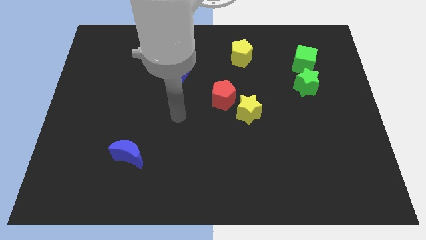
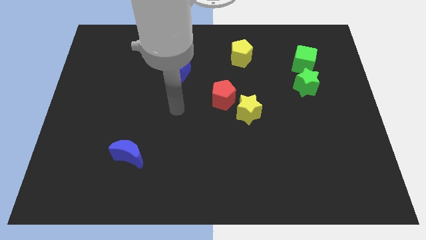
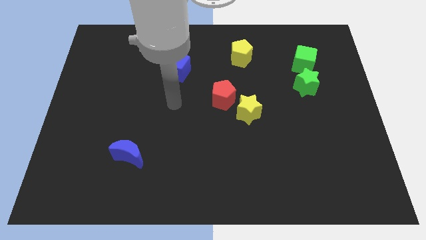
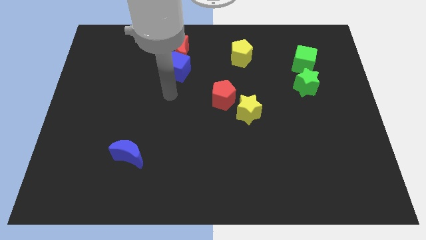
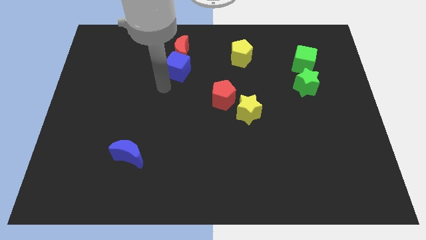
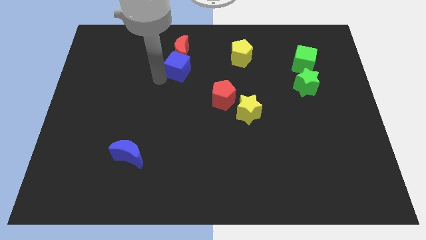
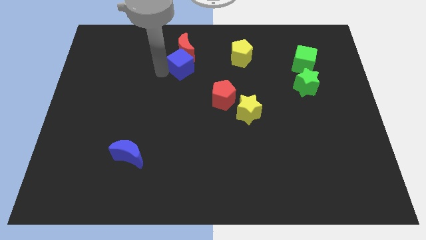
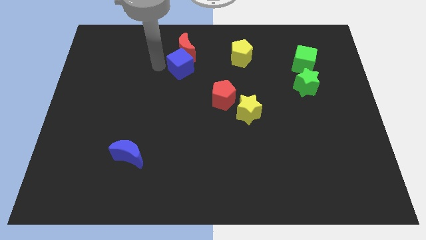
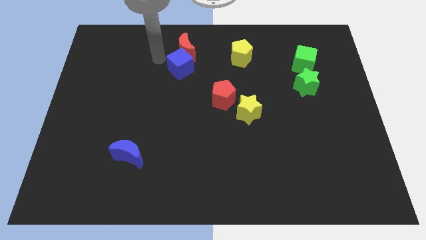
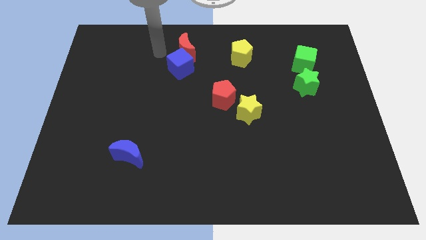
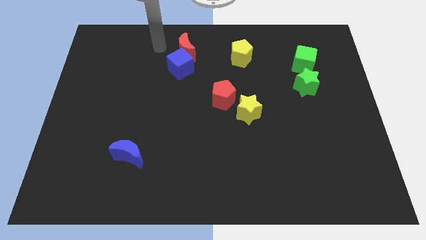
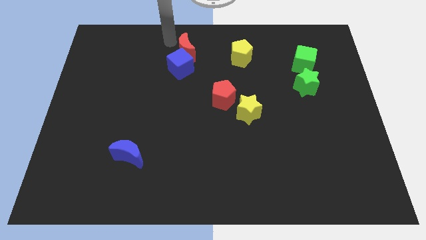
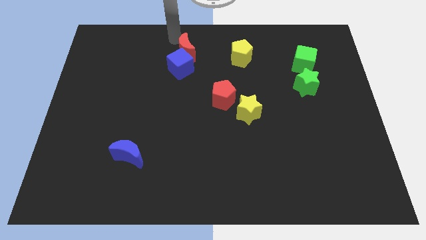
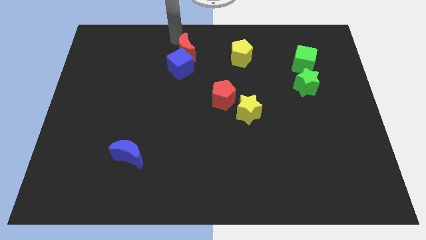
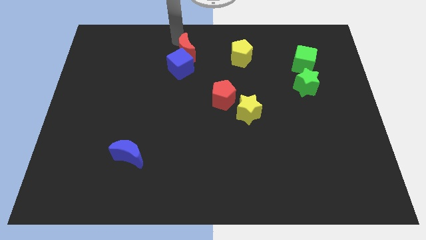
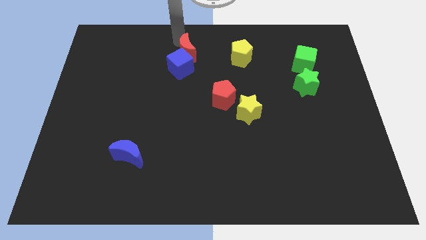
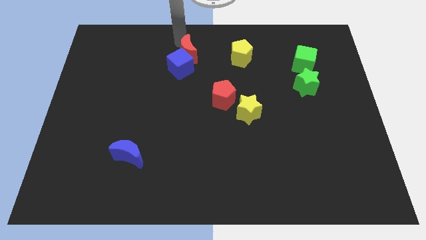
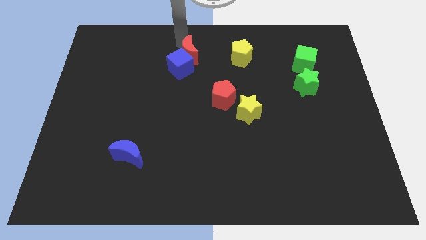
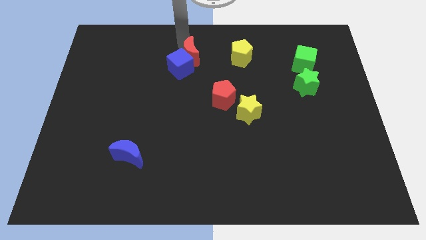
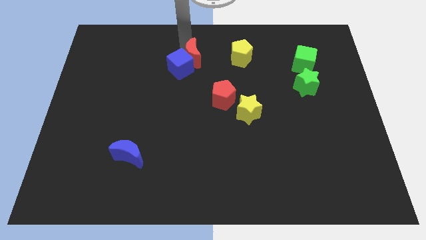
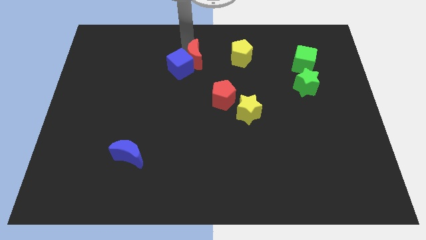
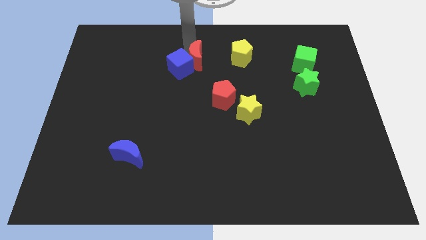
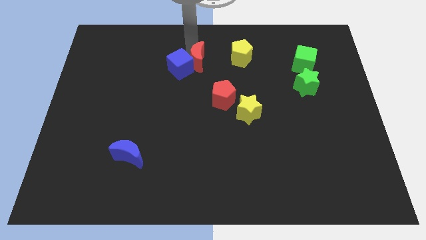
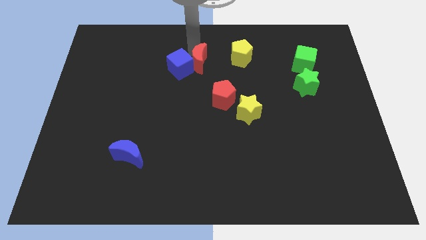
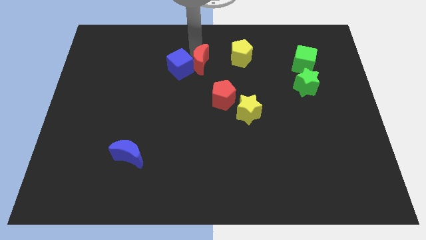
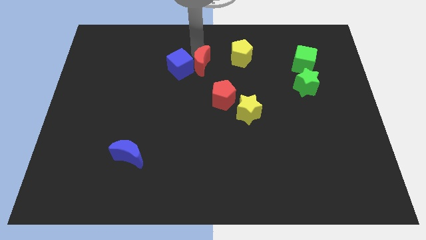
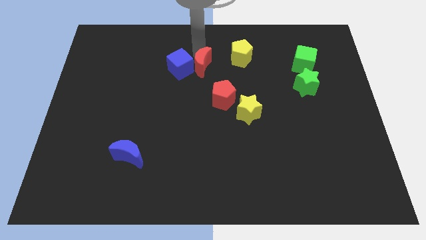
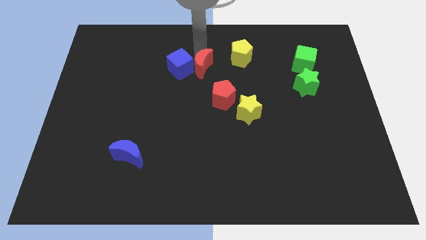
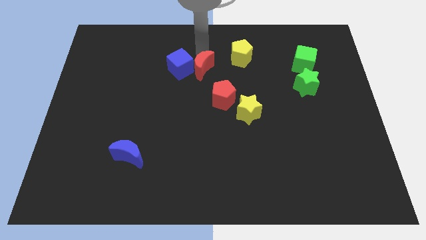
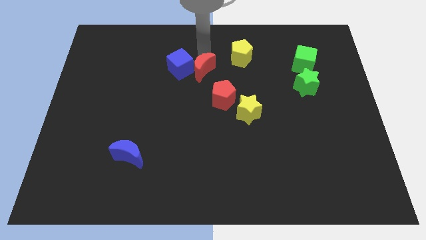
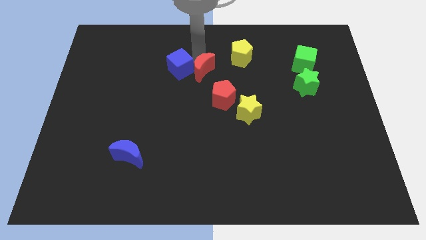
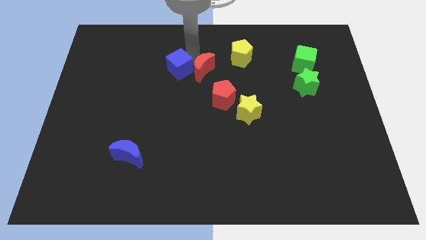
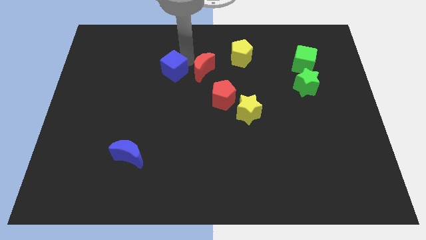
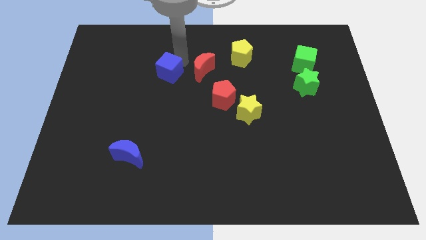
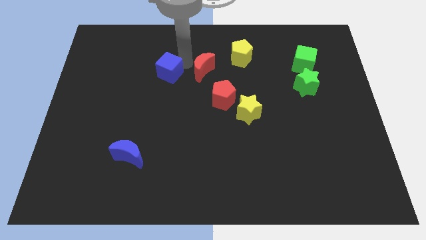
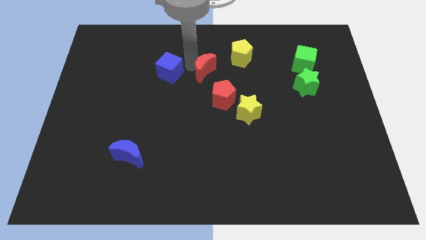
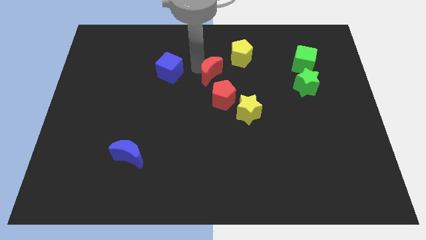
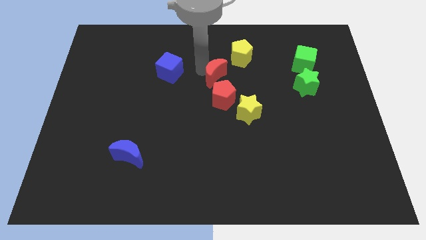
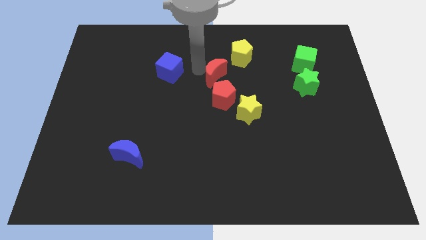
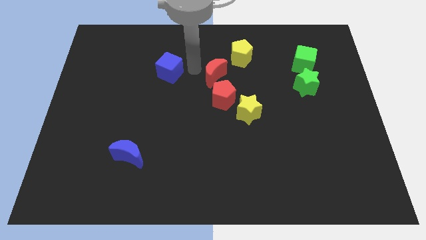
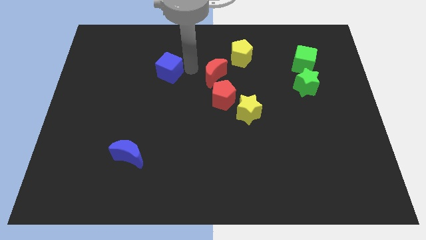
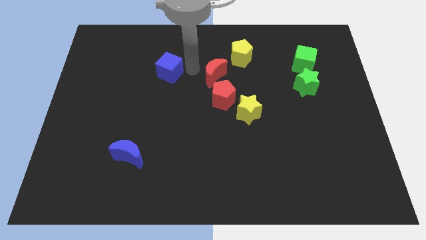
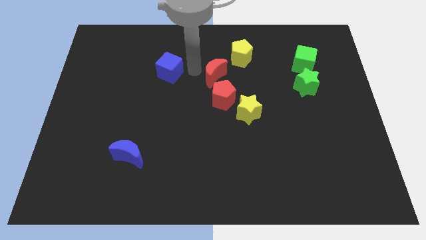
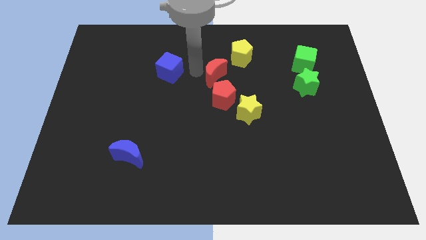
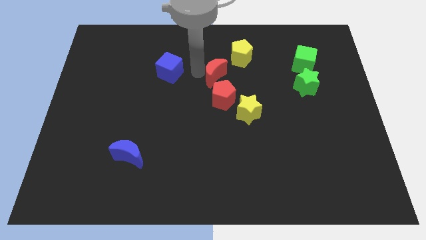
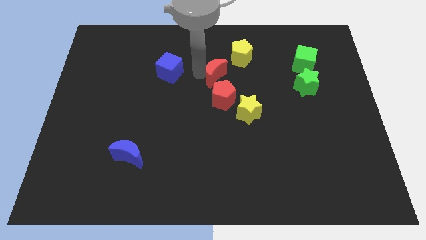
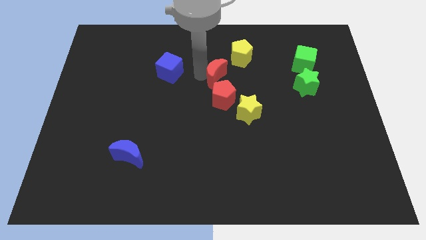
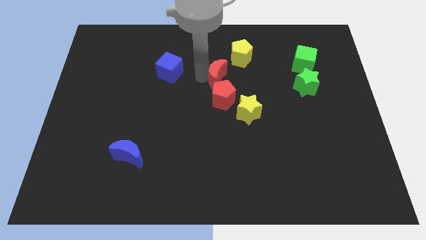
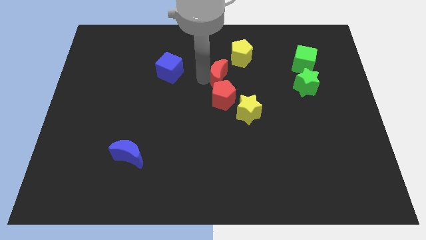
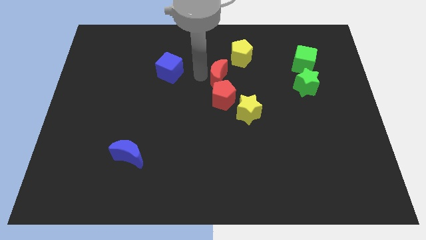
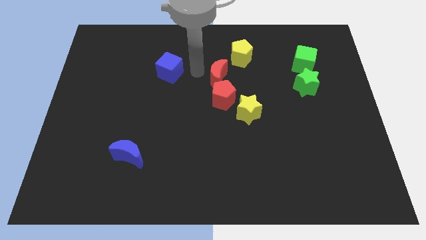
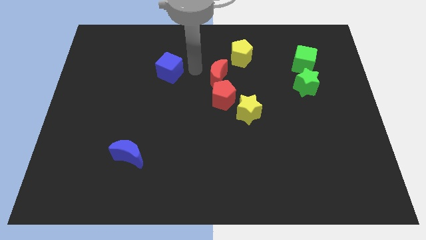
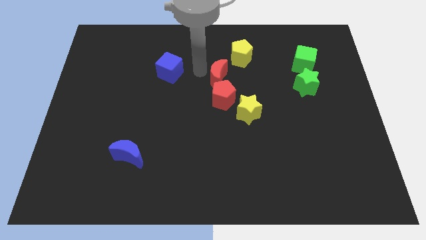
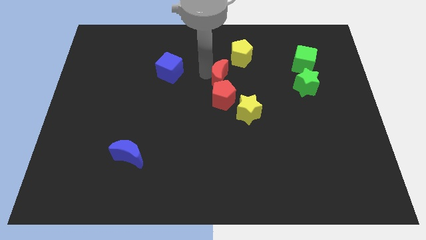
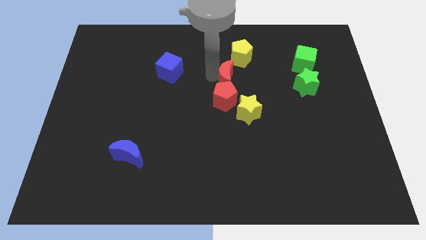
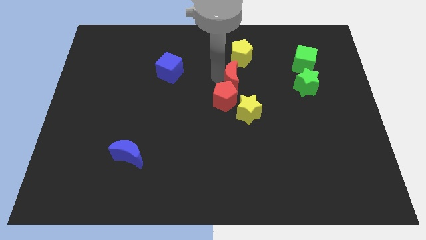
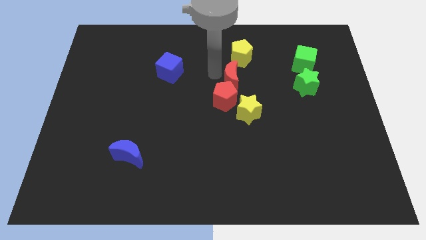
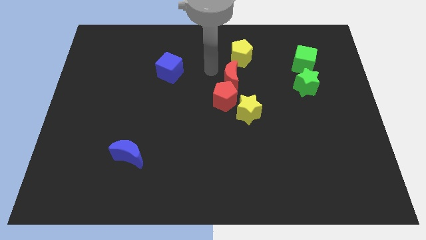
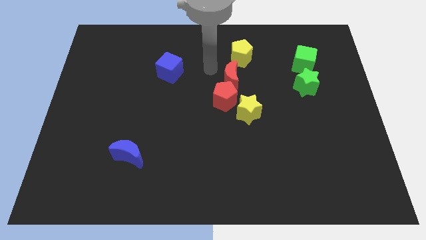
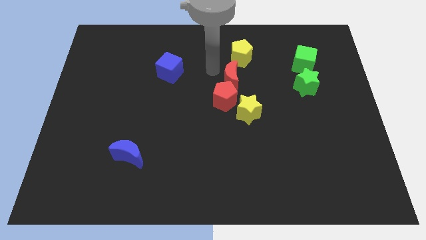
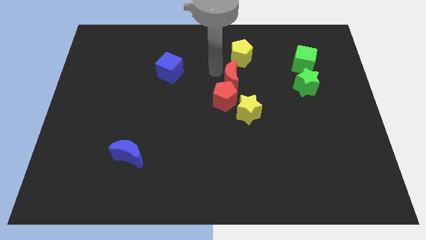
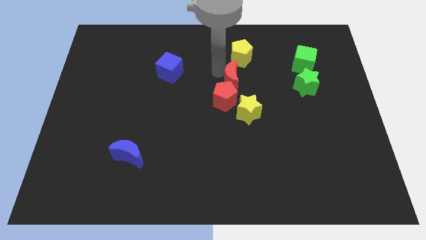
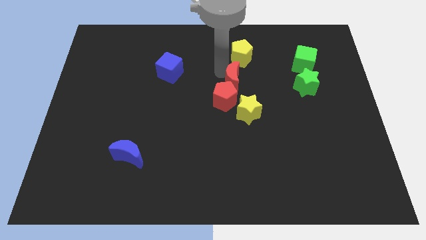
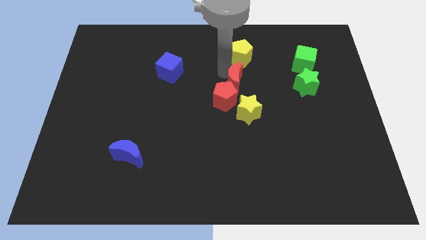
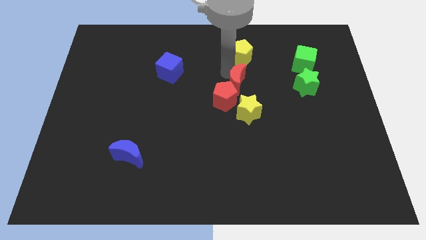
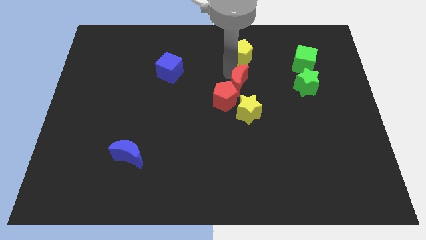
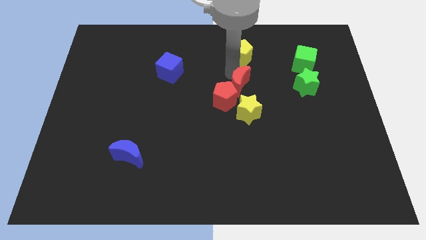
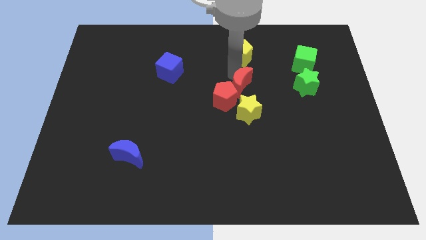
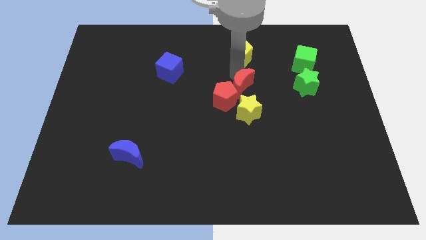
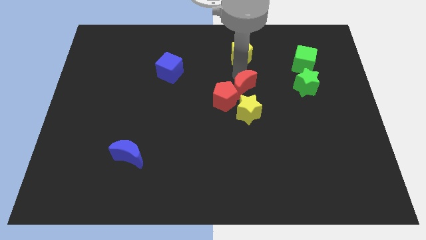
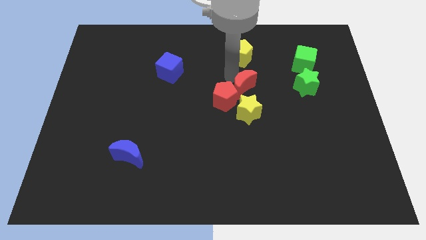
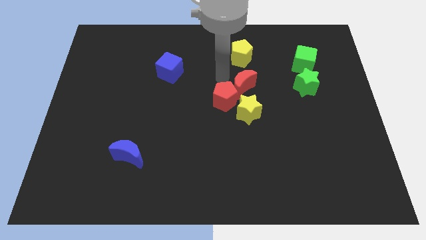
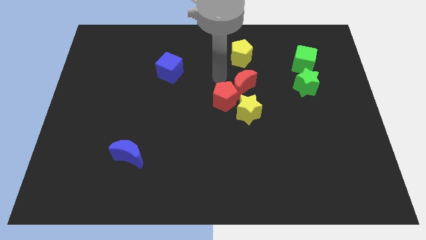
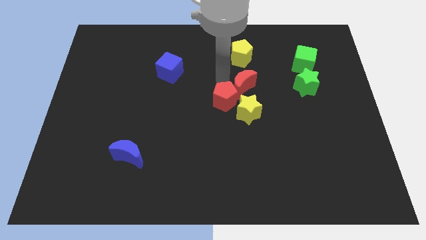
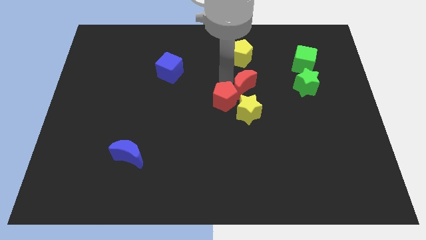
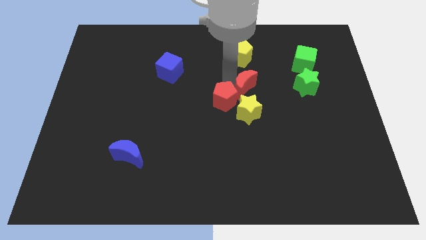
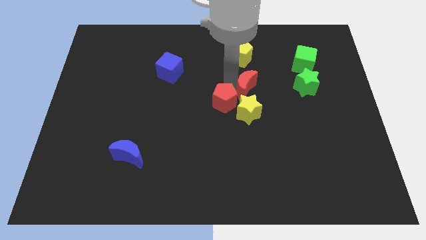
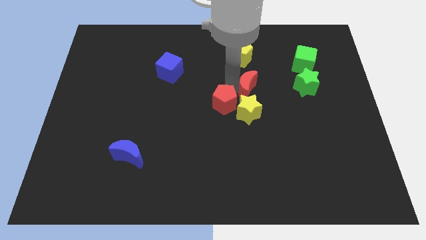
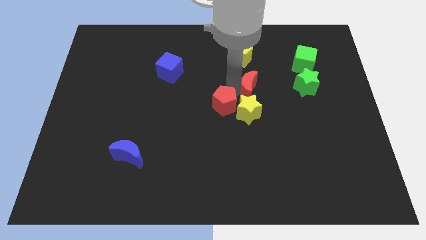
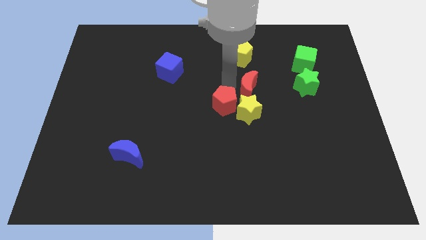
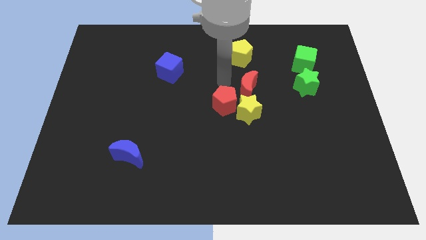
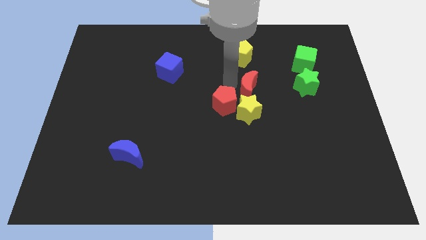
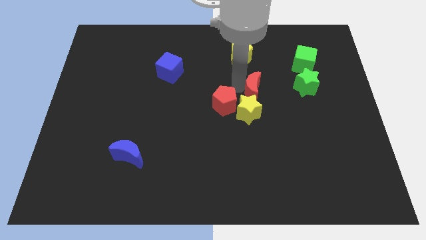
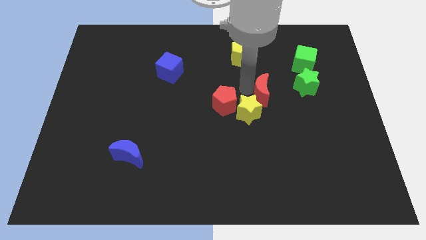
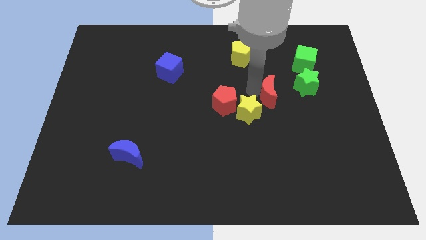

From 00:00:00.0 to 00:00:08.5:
move the red moon to the bottom left side of the green star
